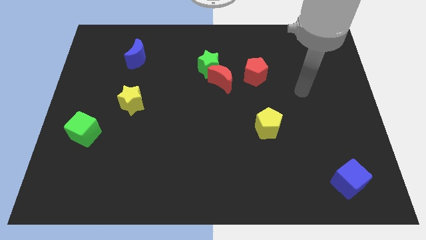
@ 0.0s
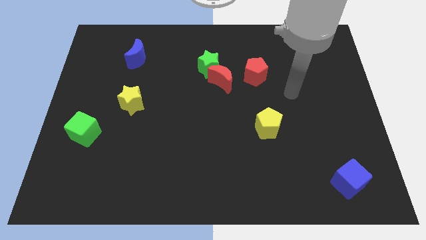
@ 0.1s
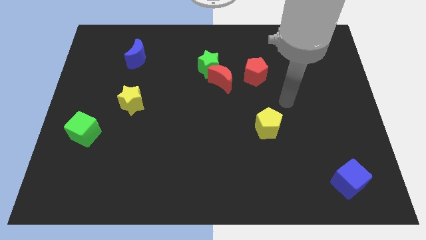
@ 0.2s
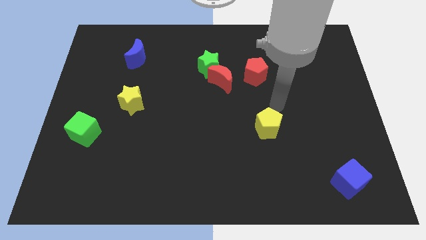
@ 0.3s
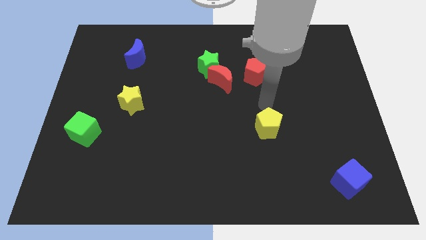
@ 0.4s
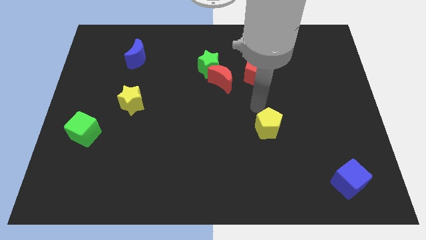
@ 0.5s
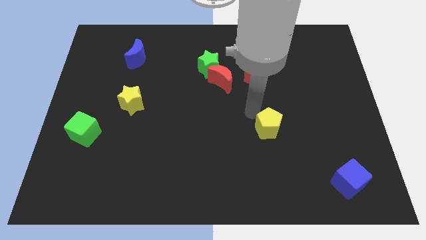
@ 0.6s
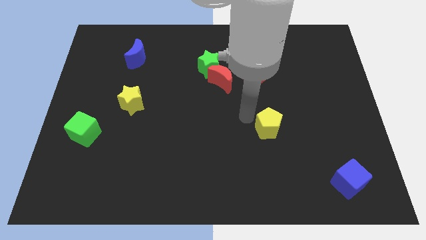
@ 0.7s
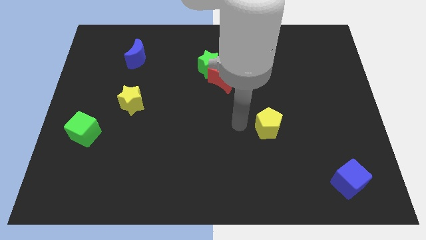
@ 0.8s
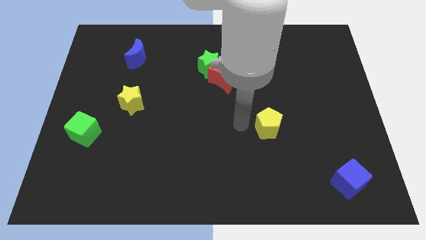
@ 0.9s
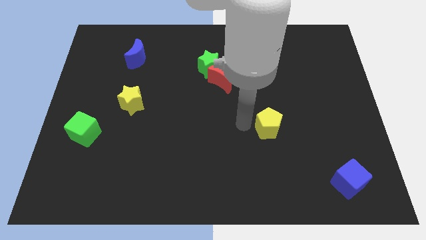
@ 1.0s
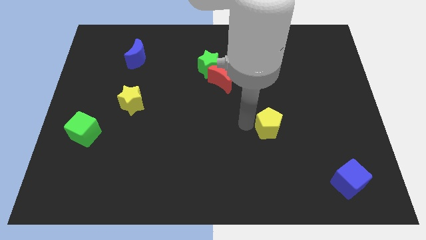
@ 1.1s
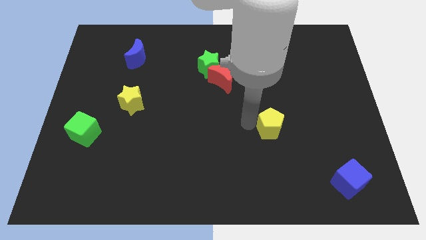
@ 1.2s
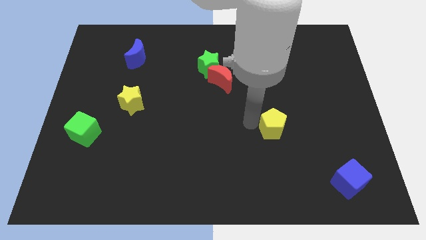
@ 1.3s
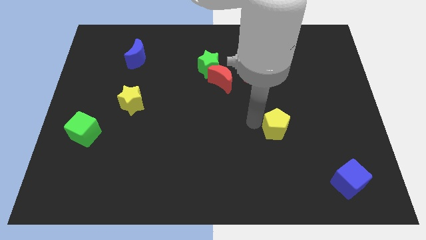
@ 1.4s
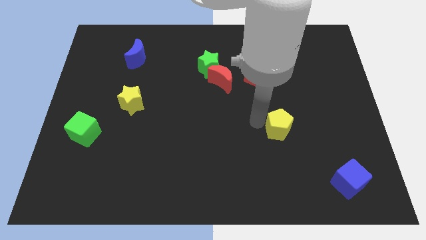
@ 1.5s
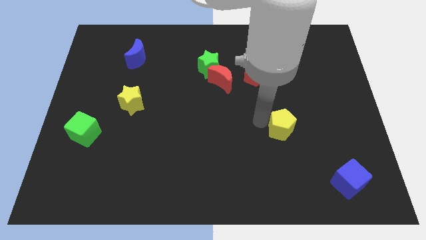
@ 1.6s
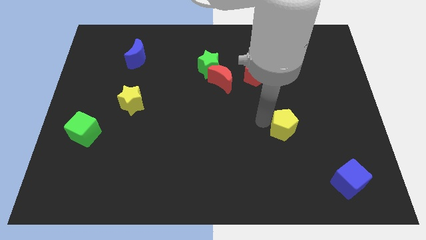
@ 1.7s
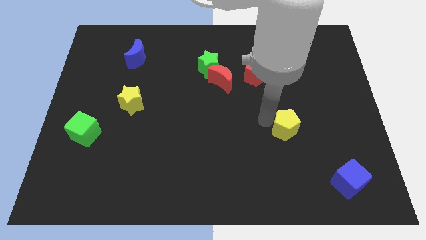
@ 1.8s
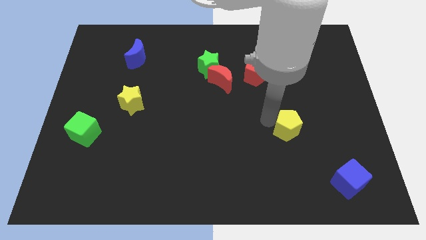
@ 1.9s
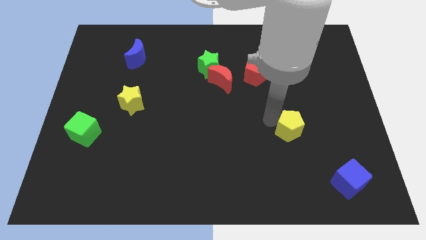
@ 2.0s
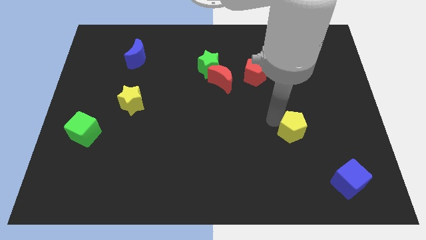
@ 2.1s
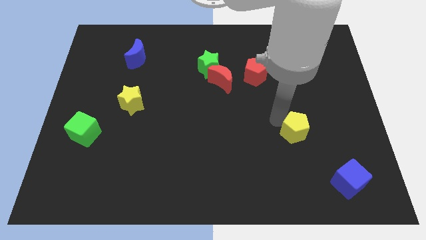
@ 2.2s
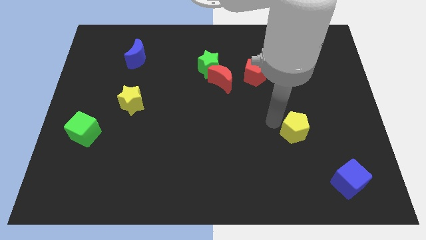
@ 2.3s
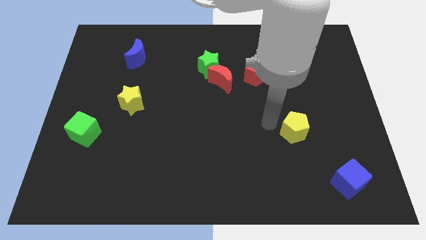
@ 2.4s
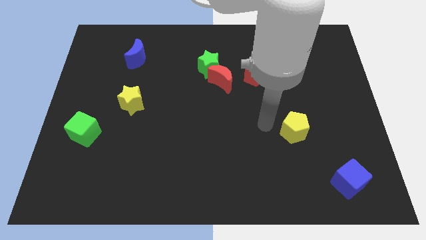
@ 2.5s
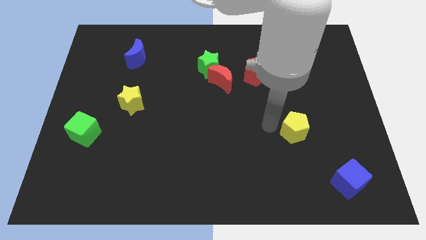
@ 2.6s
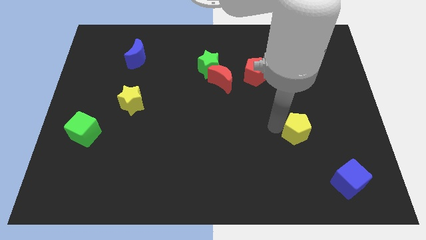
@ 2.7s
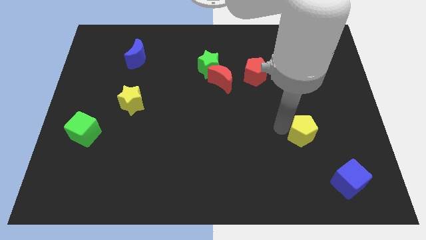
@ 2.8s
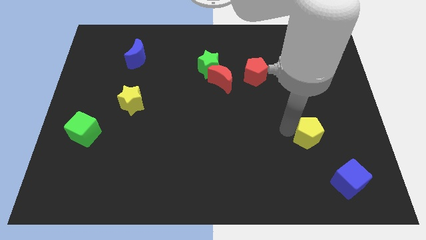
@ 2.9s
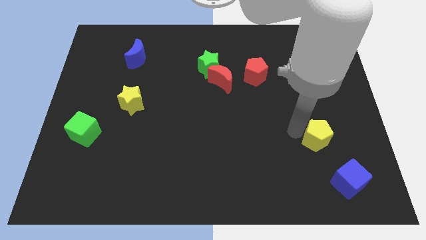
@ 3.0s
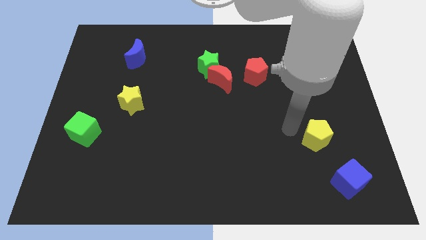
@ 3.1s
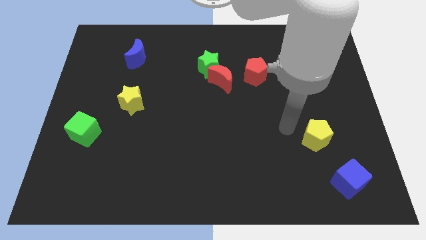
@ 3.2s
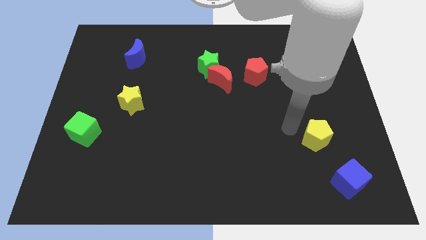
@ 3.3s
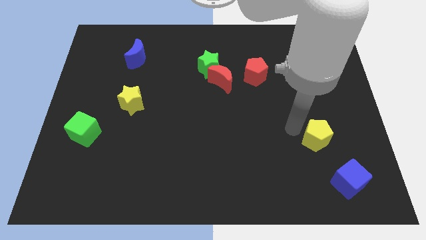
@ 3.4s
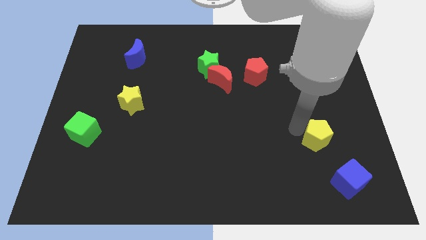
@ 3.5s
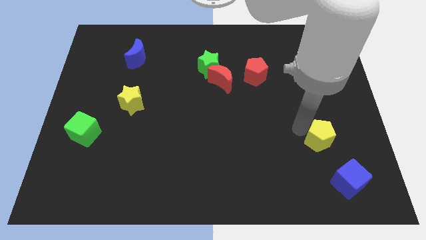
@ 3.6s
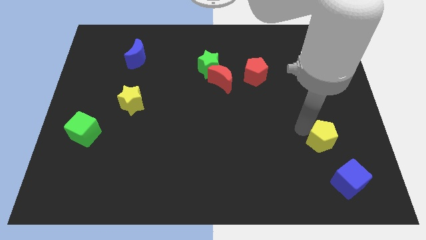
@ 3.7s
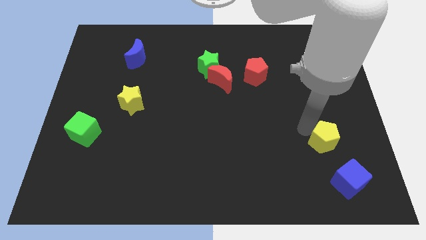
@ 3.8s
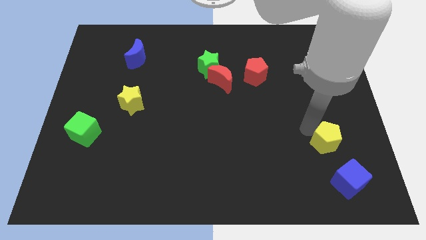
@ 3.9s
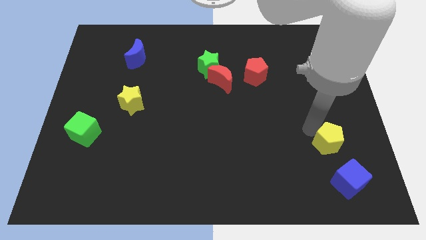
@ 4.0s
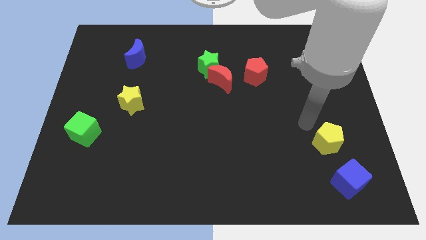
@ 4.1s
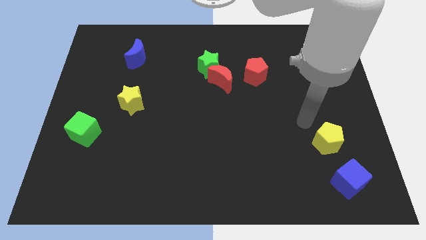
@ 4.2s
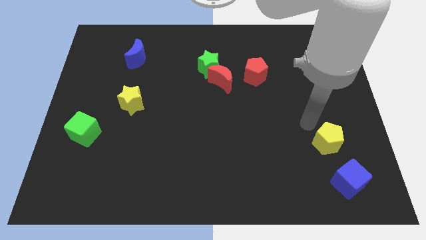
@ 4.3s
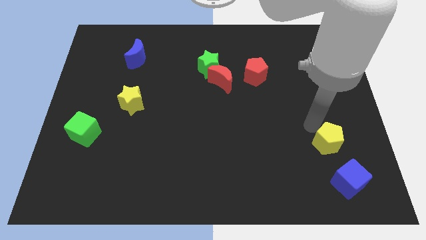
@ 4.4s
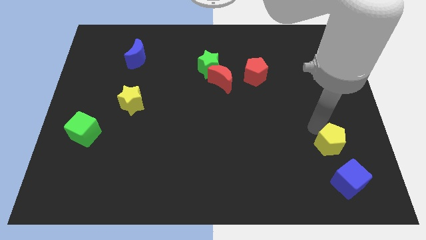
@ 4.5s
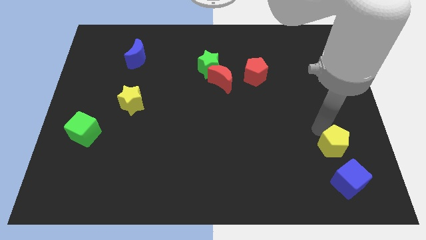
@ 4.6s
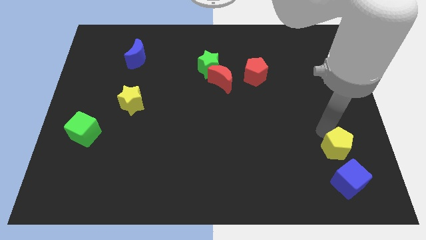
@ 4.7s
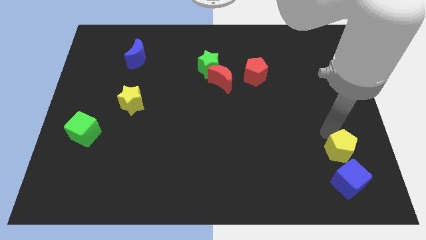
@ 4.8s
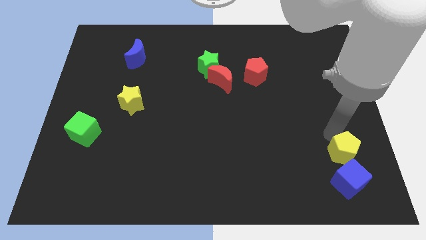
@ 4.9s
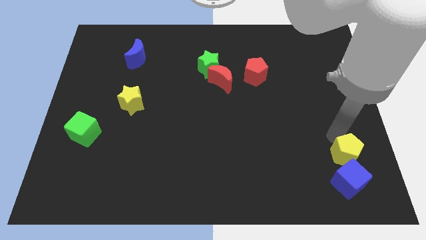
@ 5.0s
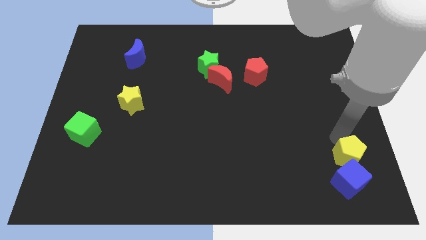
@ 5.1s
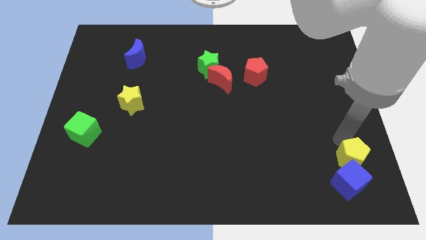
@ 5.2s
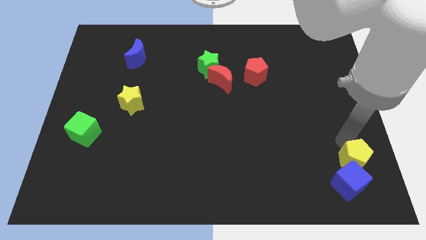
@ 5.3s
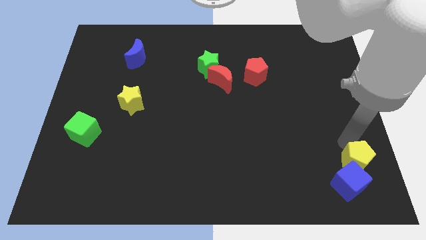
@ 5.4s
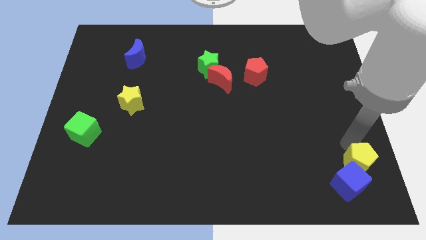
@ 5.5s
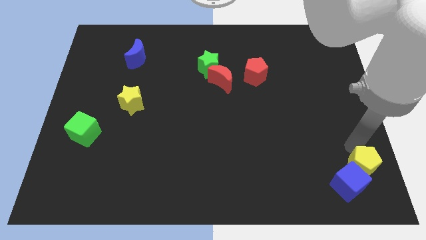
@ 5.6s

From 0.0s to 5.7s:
push the yellow pentagon to the bottom right corner
